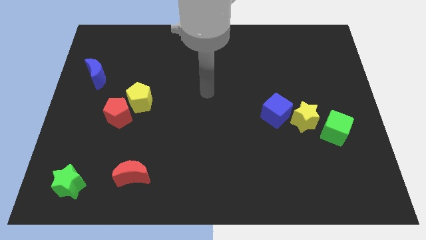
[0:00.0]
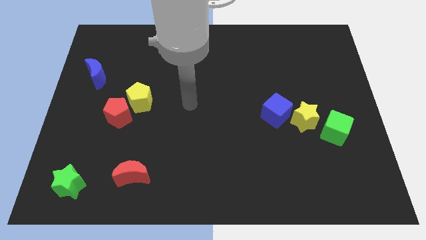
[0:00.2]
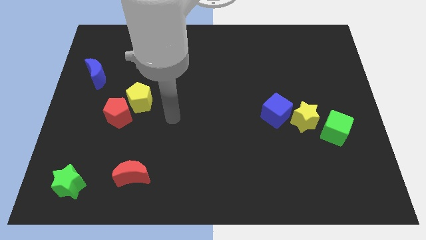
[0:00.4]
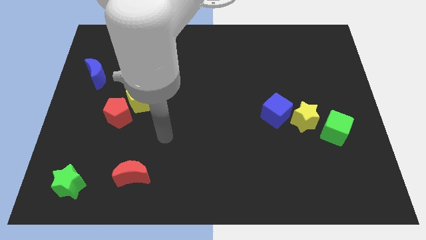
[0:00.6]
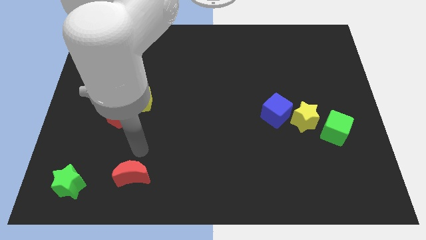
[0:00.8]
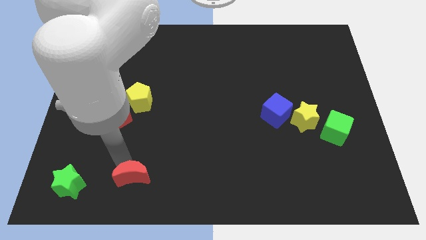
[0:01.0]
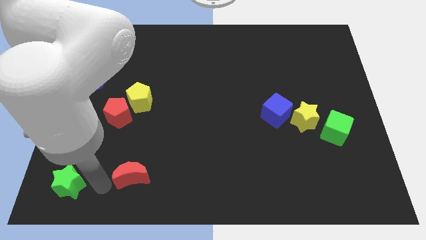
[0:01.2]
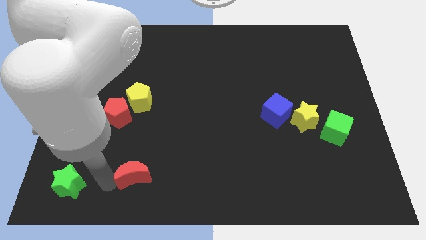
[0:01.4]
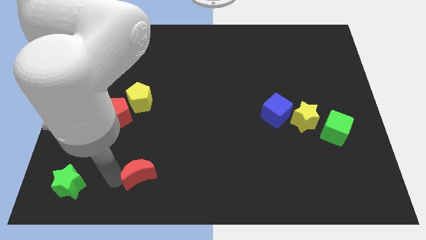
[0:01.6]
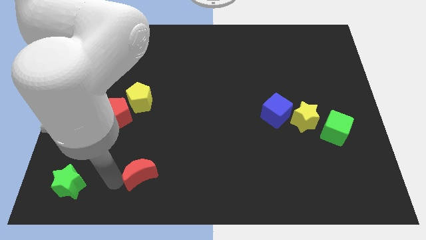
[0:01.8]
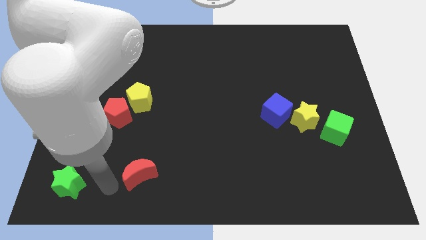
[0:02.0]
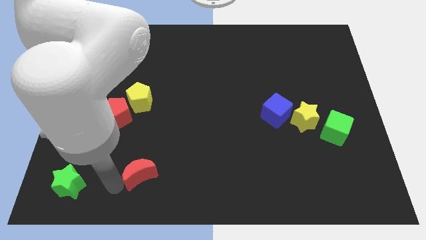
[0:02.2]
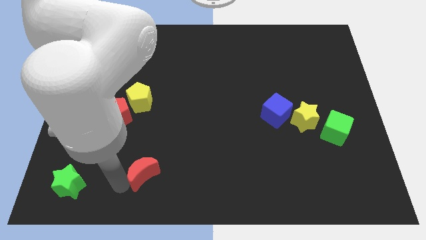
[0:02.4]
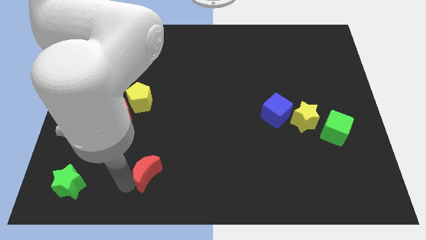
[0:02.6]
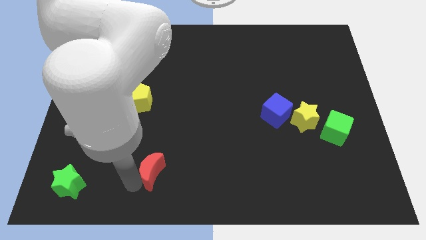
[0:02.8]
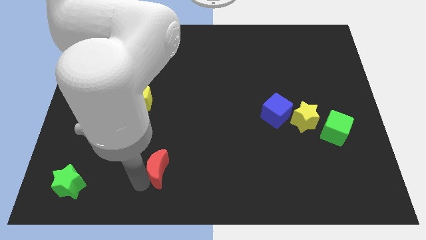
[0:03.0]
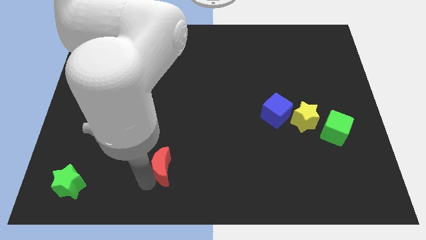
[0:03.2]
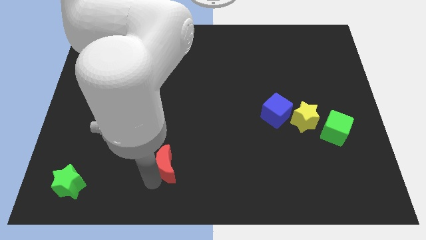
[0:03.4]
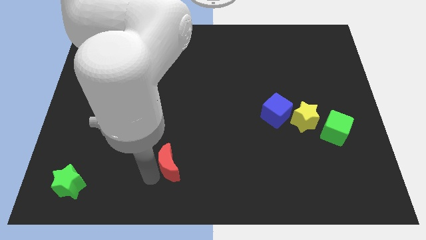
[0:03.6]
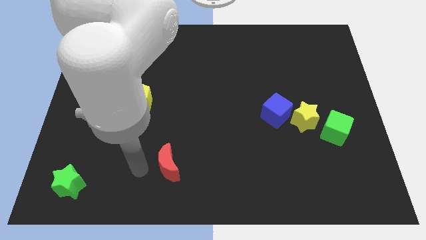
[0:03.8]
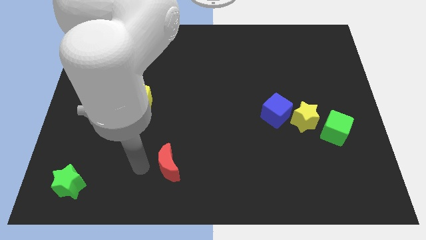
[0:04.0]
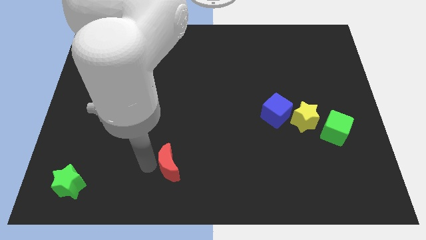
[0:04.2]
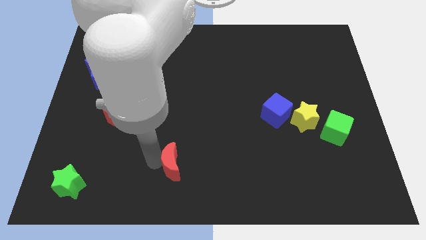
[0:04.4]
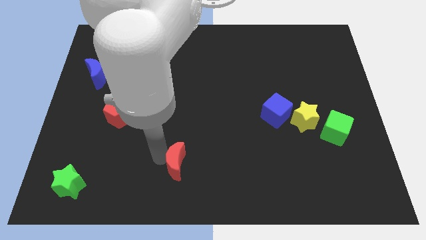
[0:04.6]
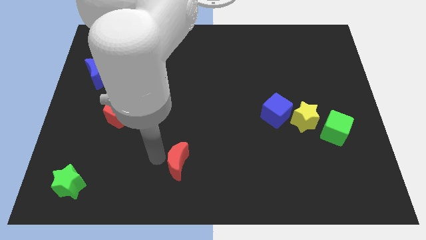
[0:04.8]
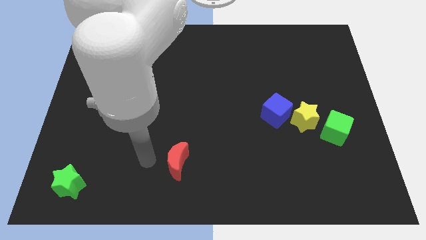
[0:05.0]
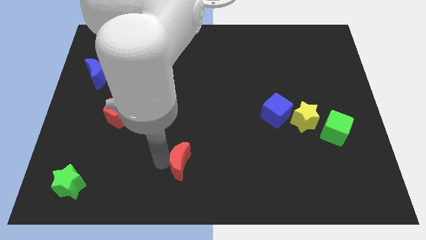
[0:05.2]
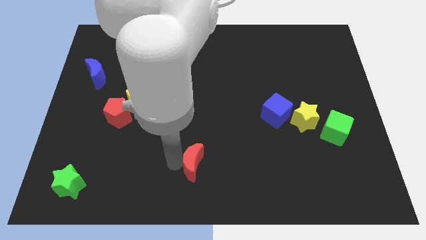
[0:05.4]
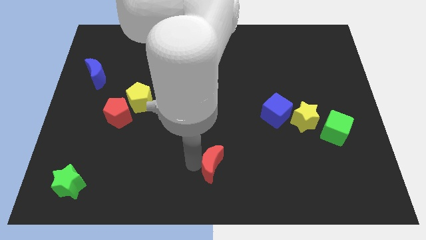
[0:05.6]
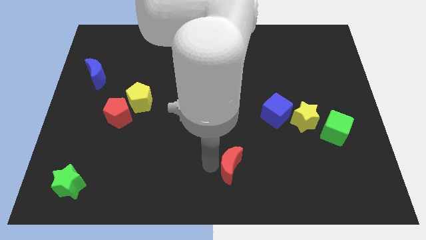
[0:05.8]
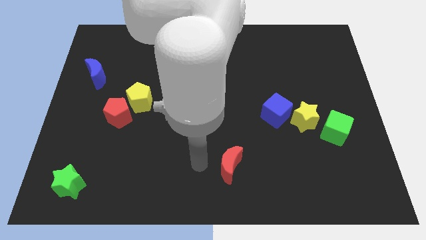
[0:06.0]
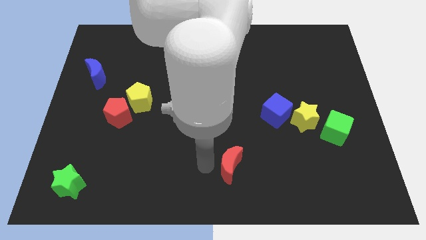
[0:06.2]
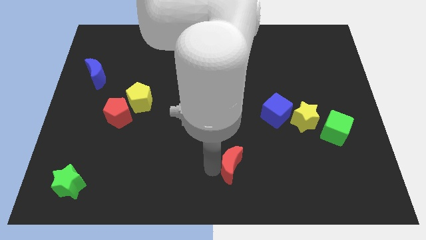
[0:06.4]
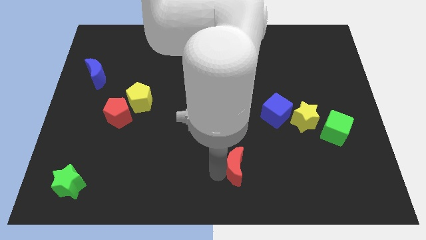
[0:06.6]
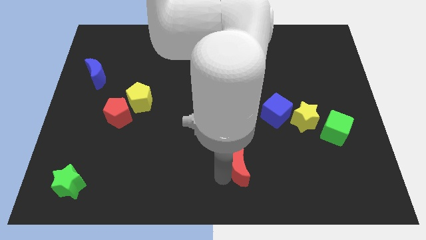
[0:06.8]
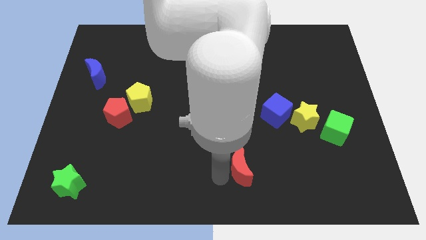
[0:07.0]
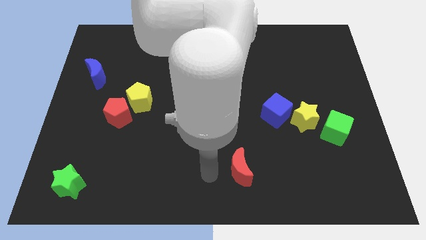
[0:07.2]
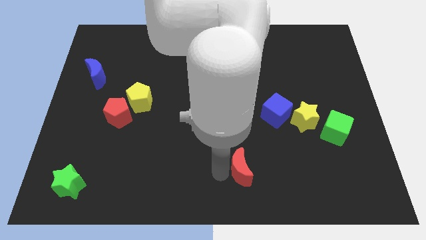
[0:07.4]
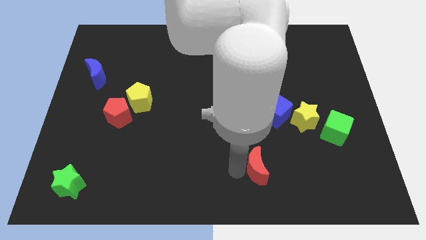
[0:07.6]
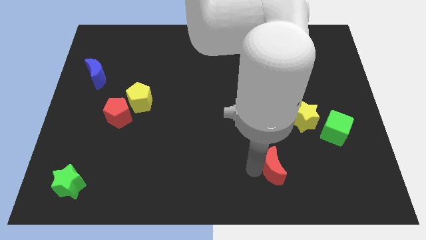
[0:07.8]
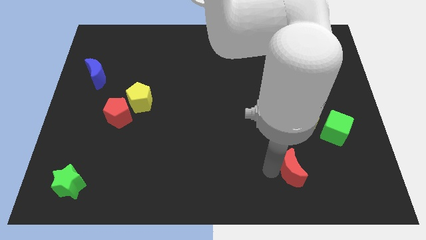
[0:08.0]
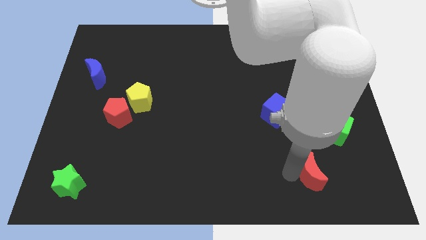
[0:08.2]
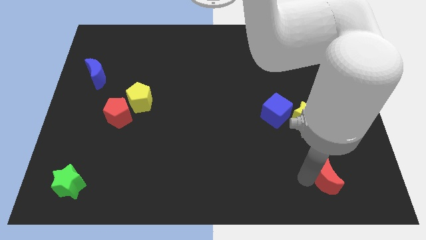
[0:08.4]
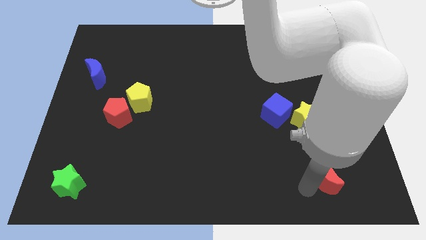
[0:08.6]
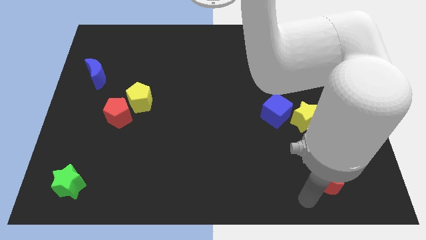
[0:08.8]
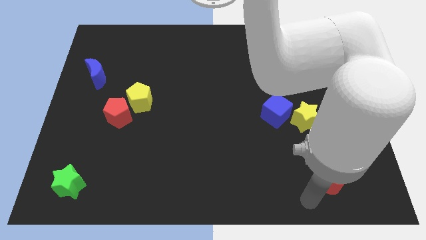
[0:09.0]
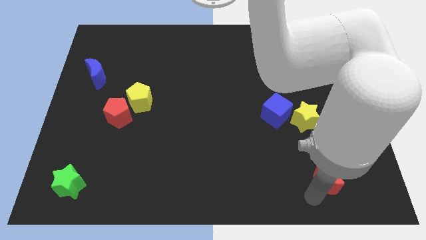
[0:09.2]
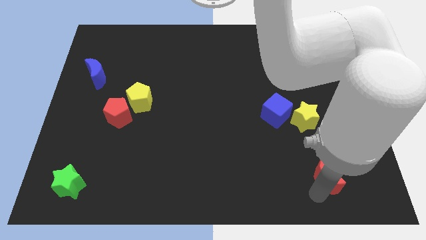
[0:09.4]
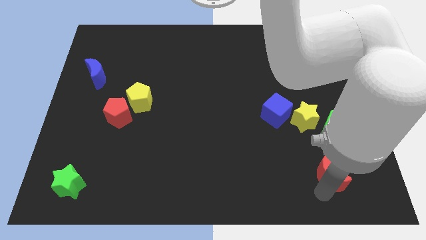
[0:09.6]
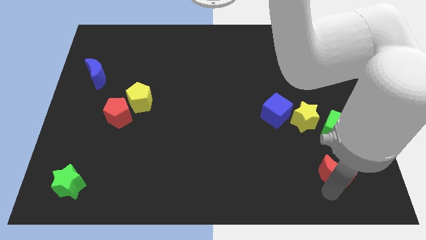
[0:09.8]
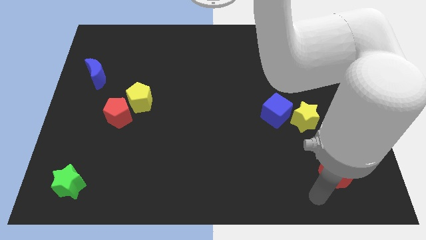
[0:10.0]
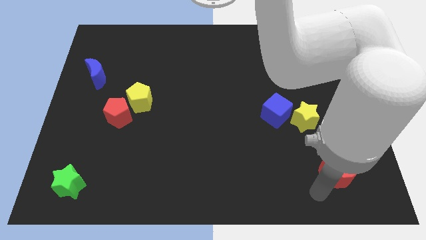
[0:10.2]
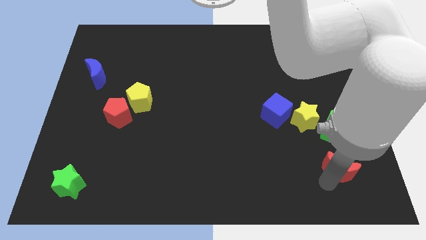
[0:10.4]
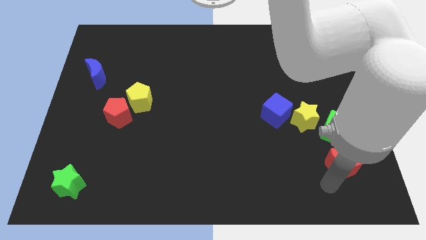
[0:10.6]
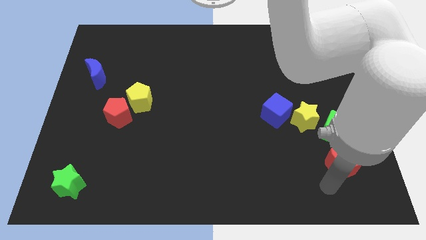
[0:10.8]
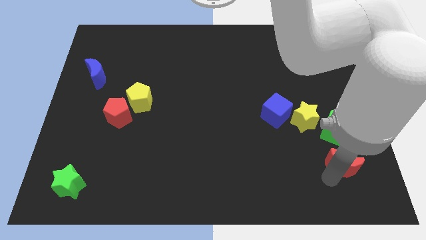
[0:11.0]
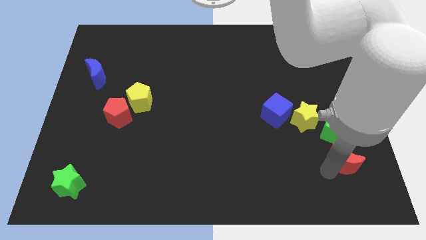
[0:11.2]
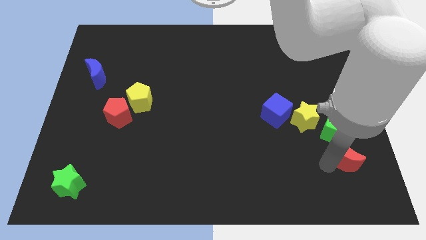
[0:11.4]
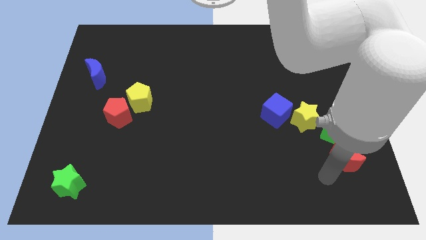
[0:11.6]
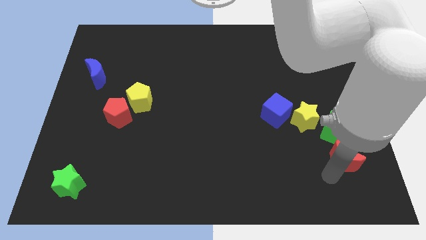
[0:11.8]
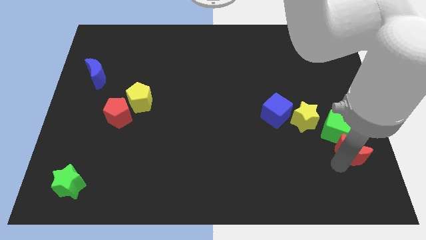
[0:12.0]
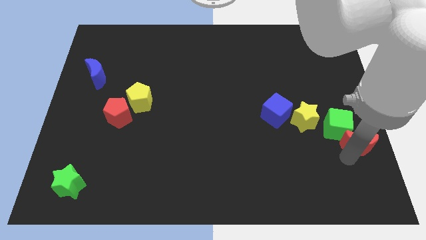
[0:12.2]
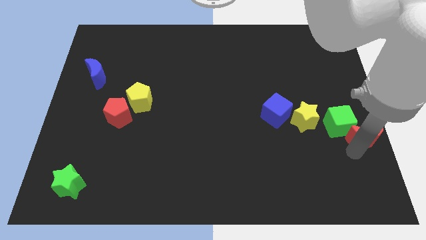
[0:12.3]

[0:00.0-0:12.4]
put the red moon to the right side

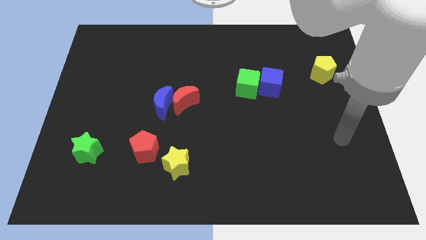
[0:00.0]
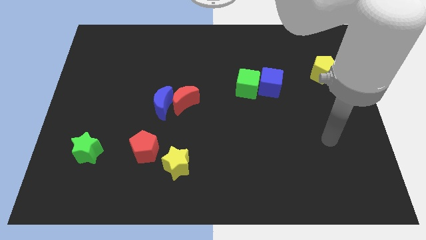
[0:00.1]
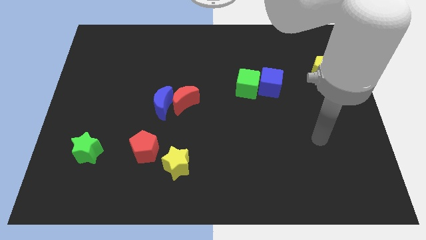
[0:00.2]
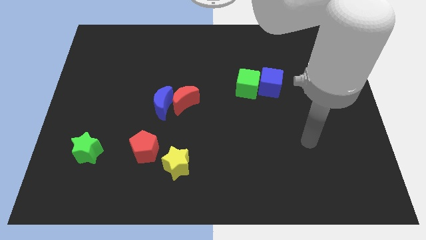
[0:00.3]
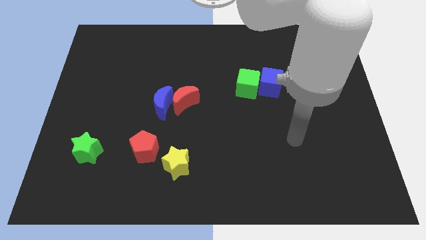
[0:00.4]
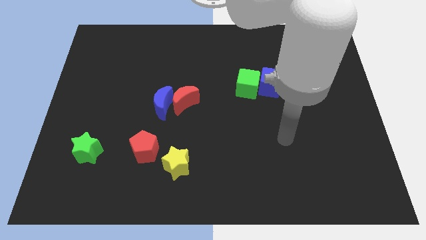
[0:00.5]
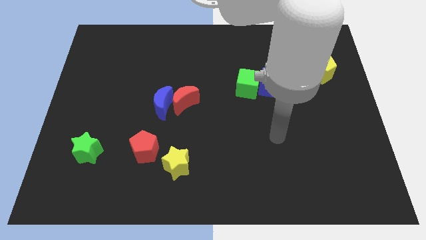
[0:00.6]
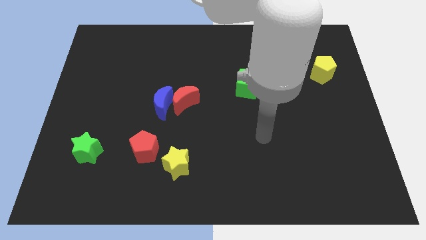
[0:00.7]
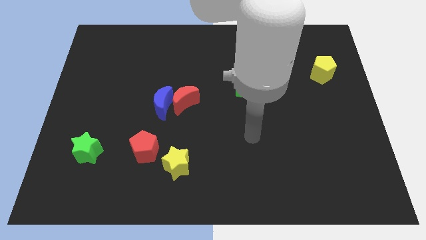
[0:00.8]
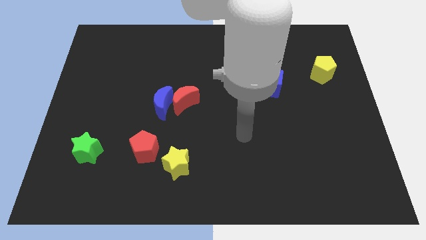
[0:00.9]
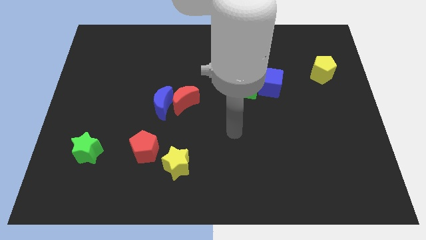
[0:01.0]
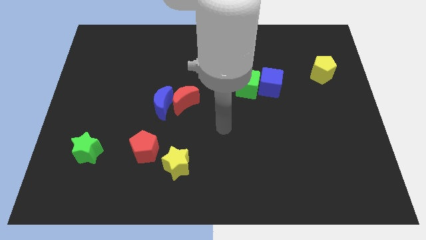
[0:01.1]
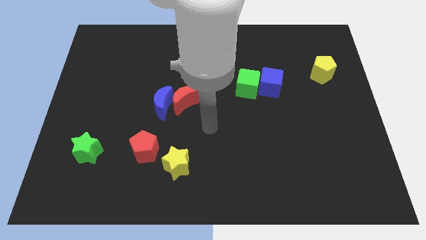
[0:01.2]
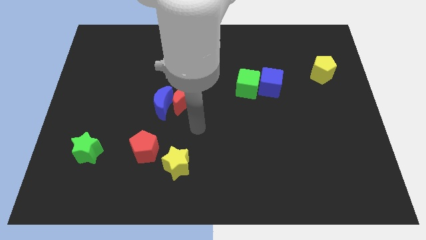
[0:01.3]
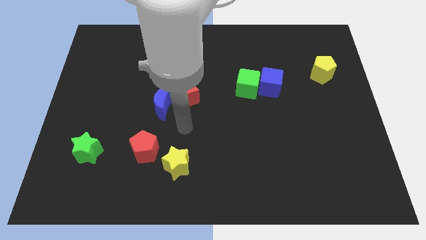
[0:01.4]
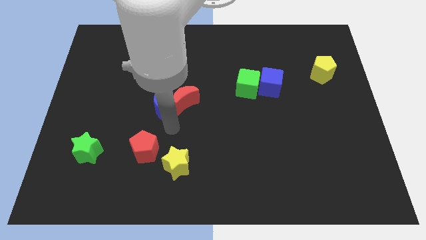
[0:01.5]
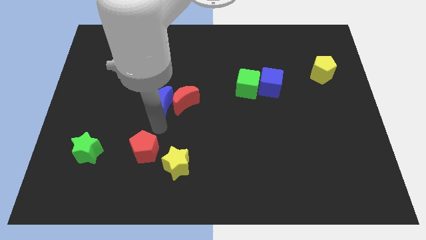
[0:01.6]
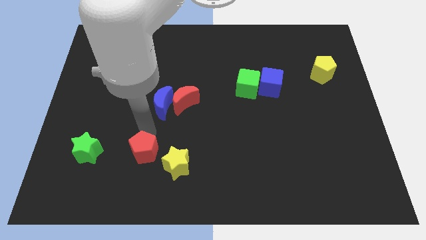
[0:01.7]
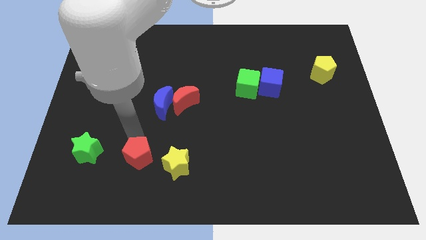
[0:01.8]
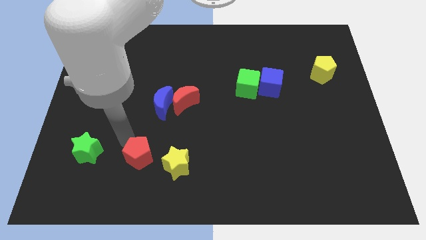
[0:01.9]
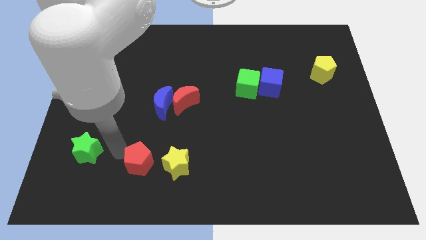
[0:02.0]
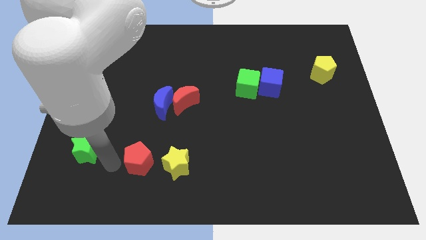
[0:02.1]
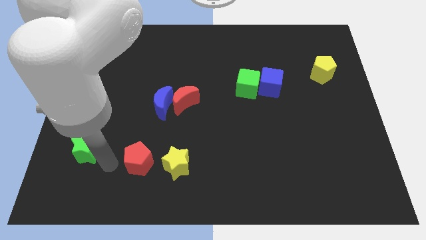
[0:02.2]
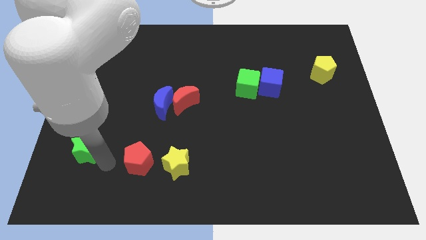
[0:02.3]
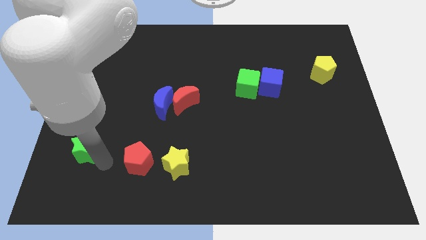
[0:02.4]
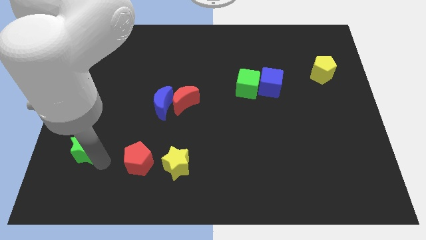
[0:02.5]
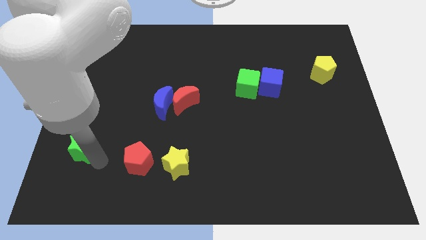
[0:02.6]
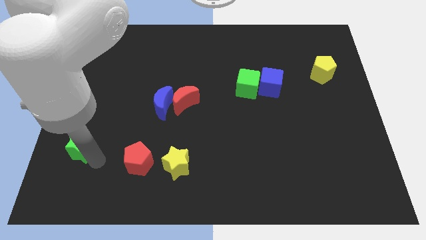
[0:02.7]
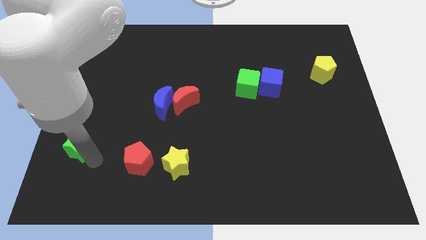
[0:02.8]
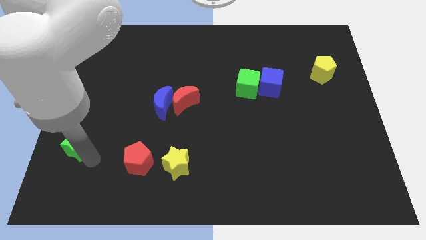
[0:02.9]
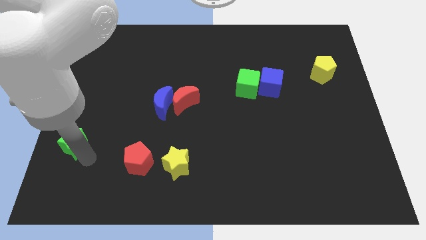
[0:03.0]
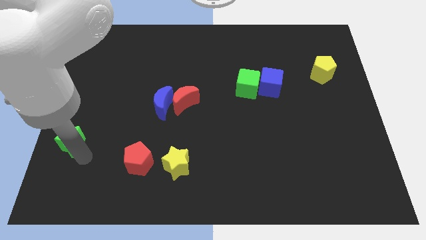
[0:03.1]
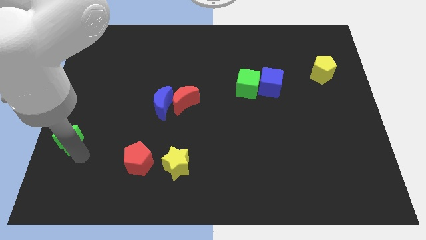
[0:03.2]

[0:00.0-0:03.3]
push the green star to the left side of the board
